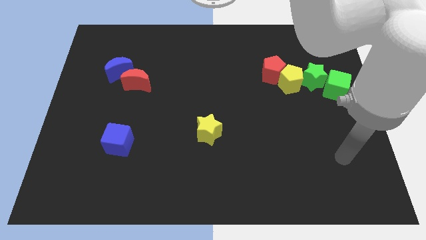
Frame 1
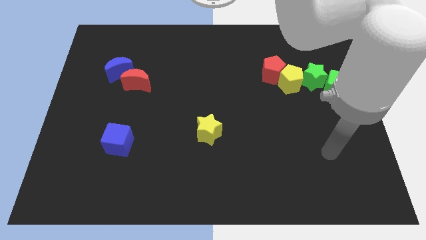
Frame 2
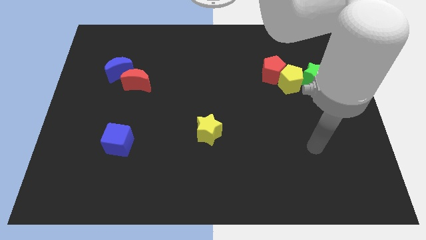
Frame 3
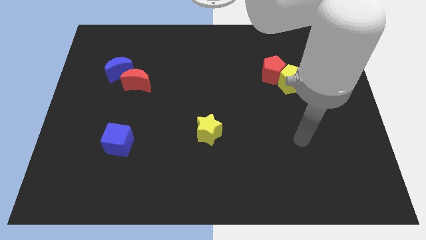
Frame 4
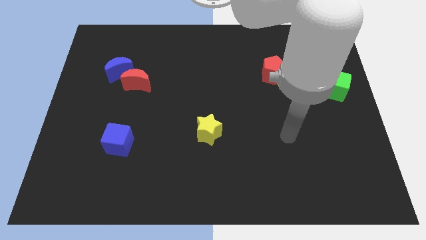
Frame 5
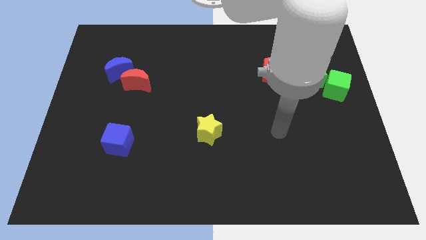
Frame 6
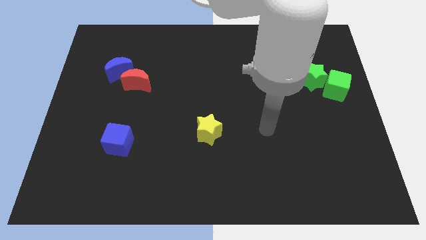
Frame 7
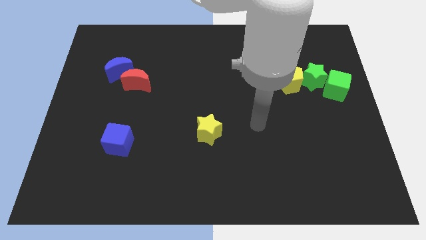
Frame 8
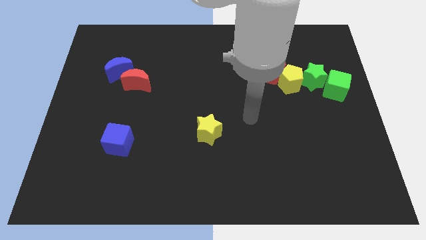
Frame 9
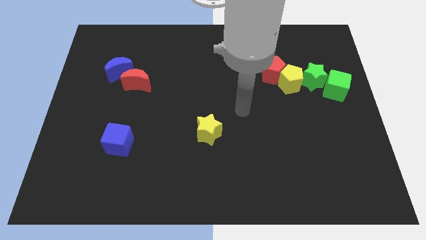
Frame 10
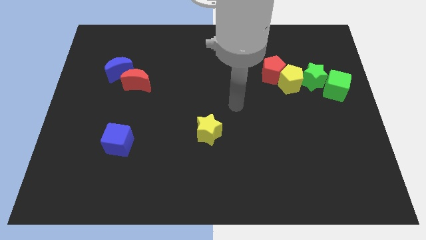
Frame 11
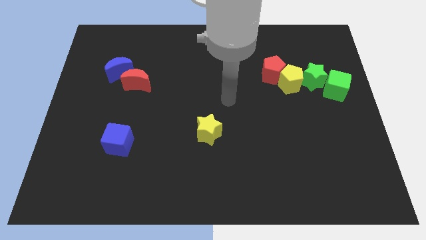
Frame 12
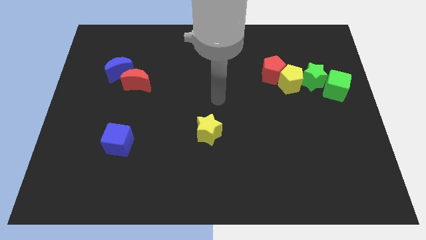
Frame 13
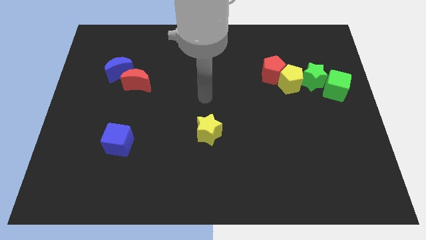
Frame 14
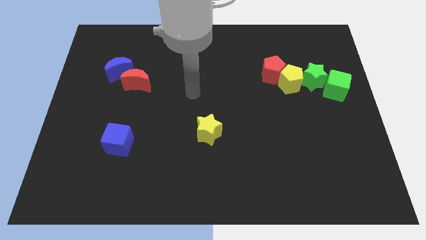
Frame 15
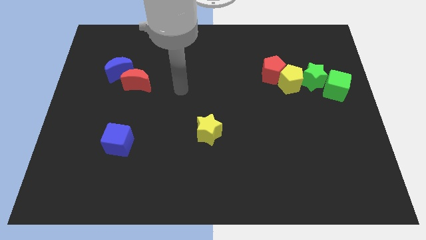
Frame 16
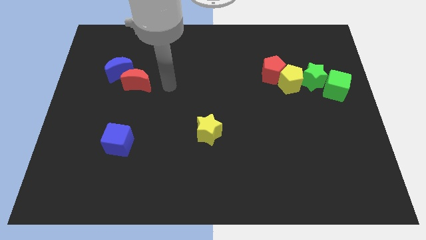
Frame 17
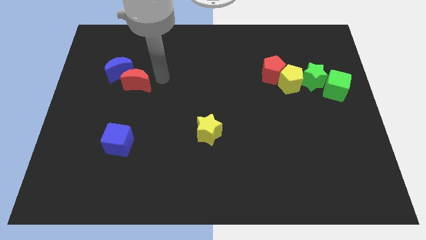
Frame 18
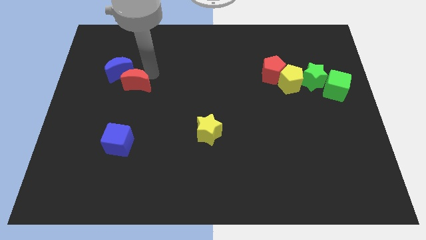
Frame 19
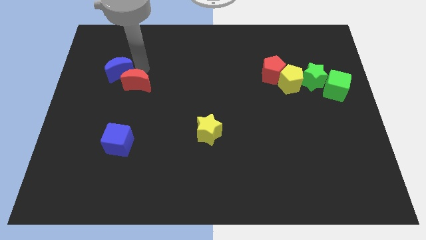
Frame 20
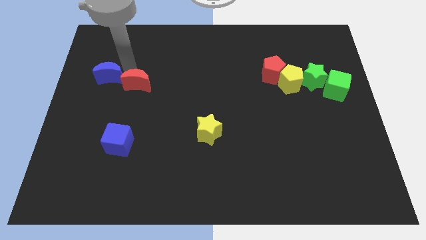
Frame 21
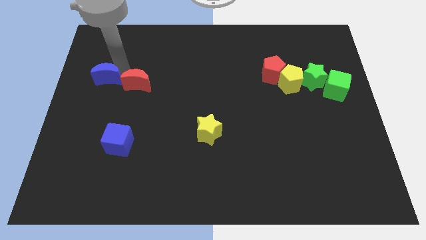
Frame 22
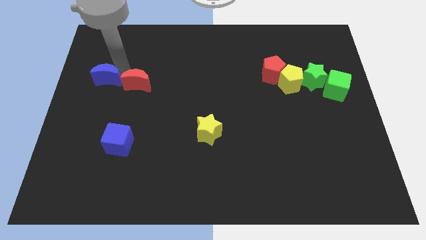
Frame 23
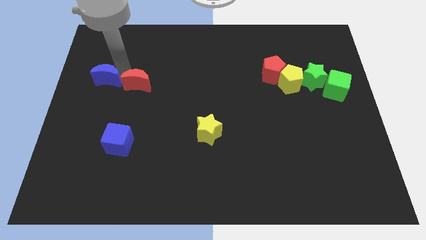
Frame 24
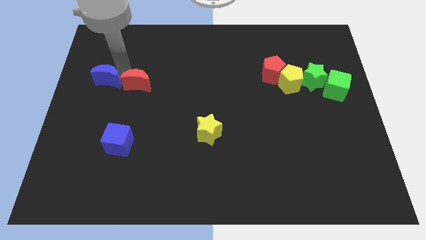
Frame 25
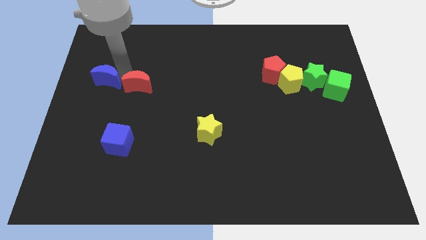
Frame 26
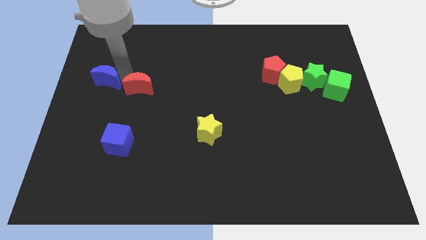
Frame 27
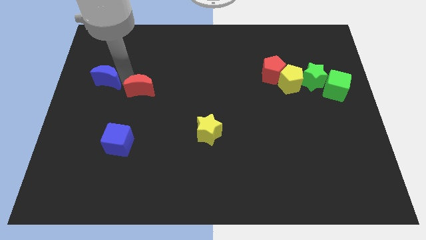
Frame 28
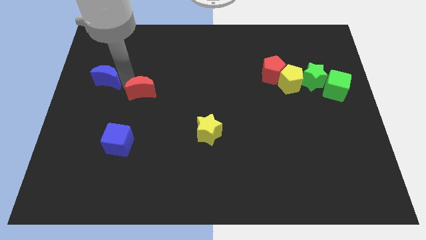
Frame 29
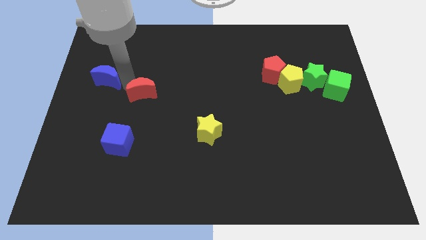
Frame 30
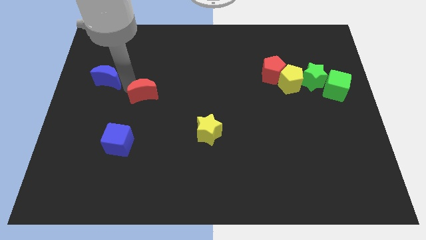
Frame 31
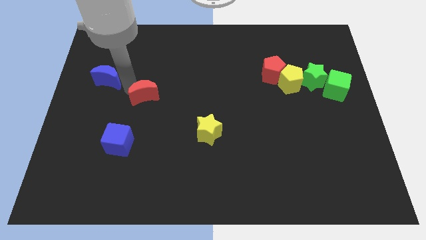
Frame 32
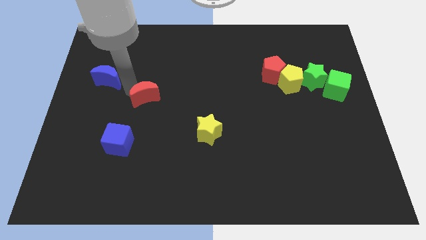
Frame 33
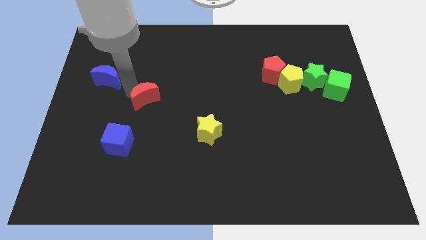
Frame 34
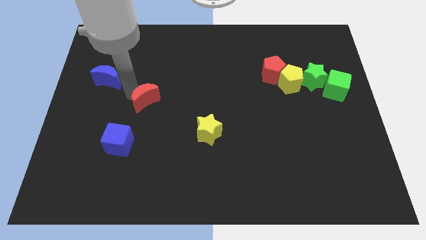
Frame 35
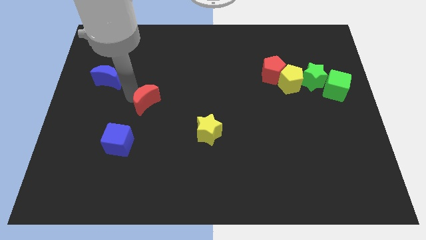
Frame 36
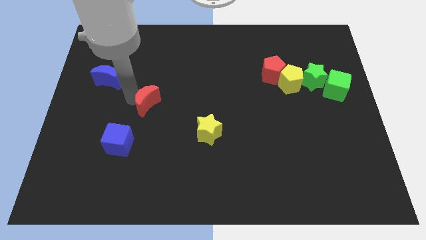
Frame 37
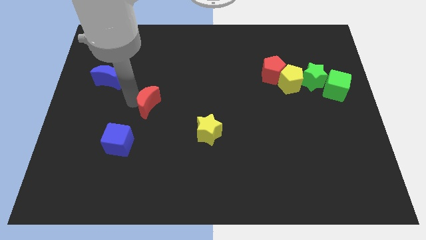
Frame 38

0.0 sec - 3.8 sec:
push the red moon somewhat diagonally downwards and right

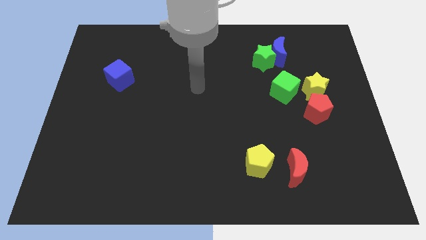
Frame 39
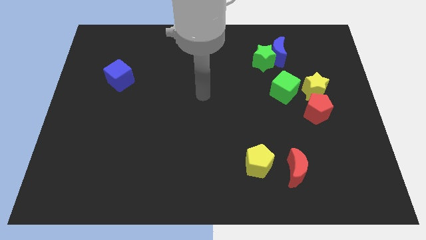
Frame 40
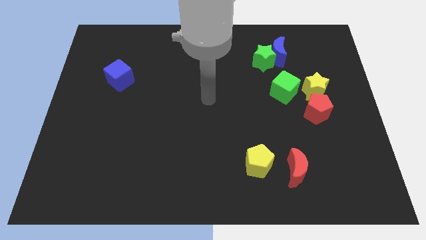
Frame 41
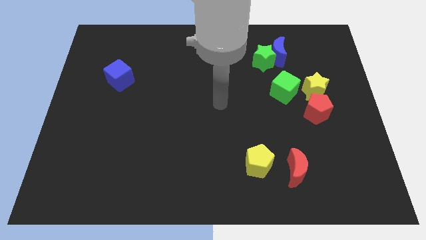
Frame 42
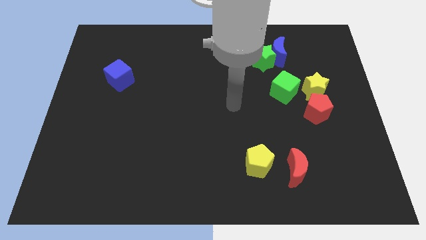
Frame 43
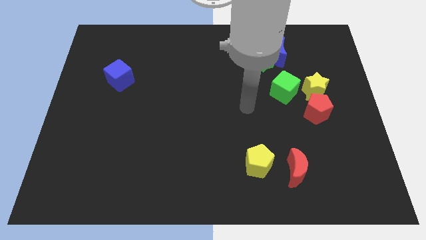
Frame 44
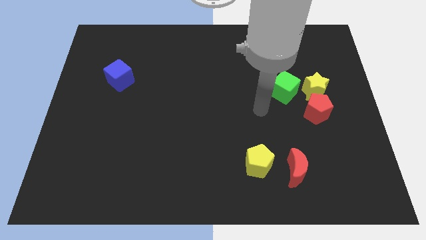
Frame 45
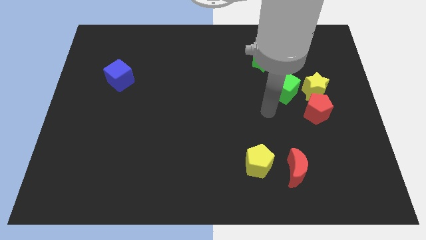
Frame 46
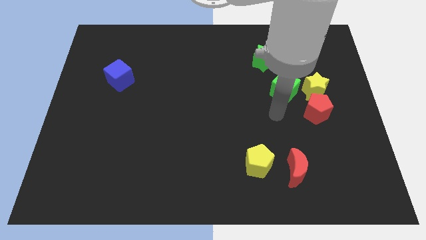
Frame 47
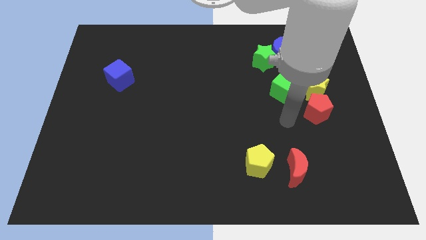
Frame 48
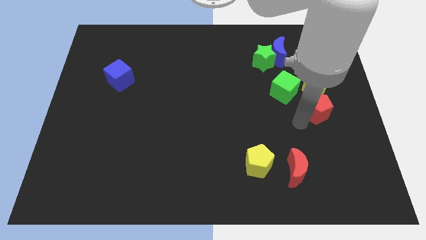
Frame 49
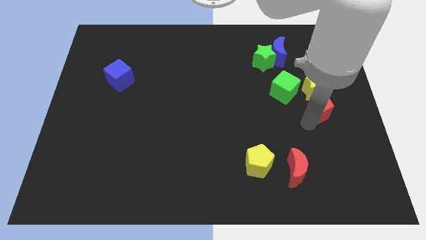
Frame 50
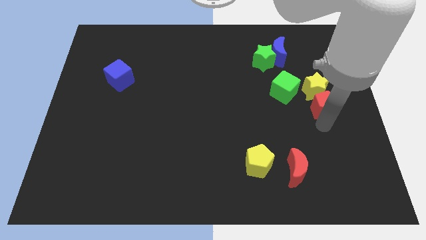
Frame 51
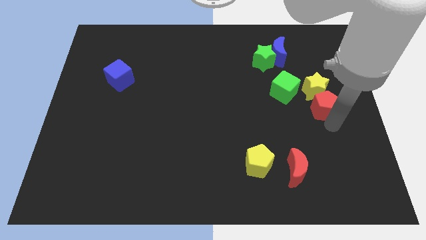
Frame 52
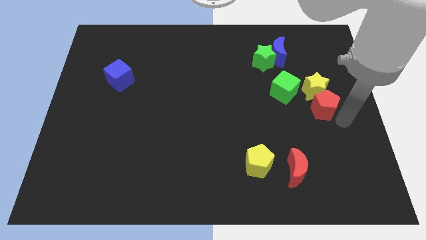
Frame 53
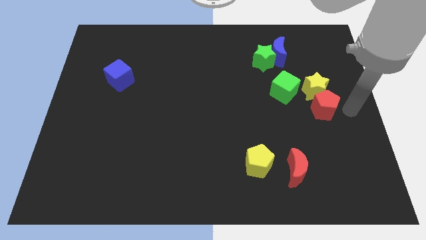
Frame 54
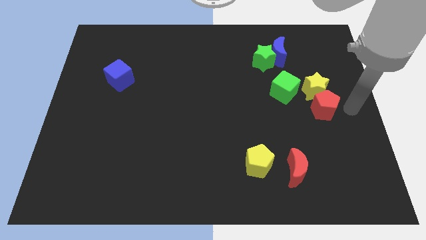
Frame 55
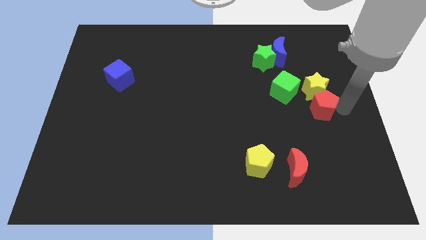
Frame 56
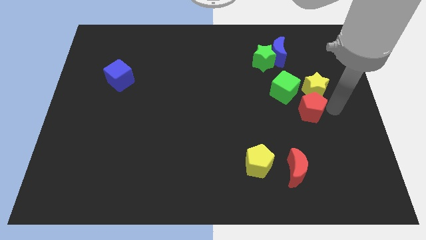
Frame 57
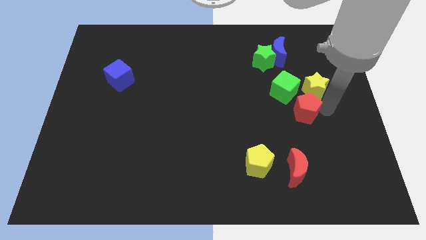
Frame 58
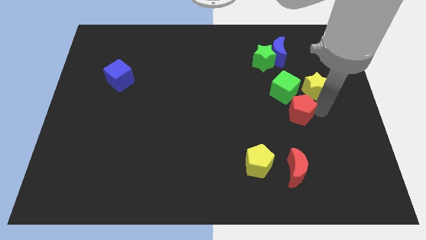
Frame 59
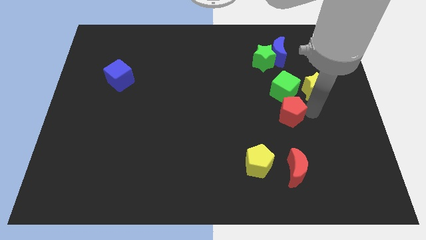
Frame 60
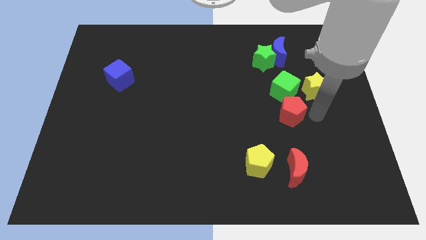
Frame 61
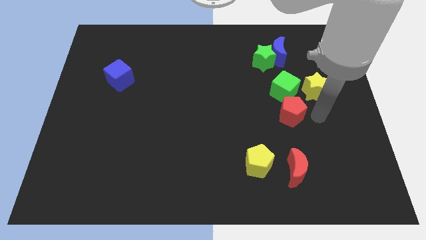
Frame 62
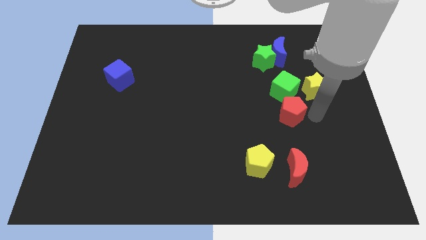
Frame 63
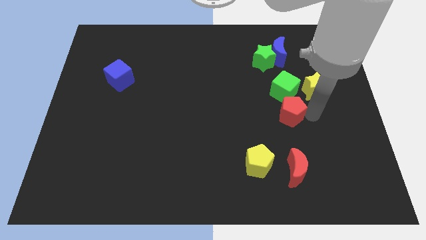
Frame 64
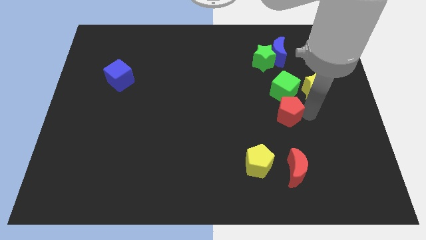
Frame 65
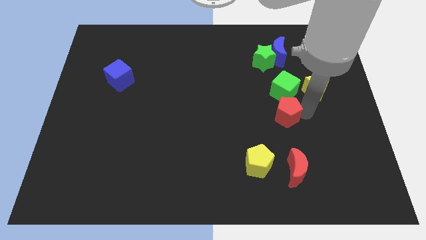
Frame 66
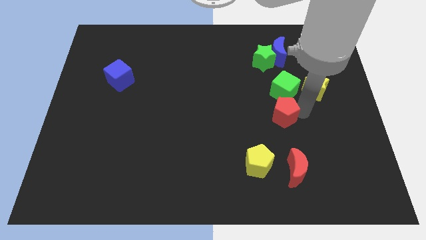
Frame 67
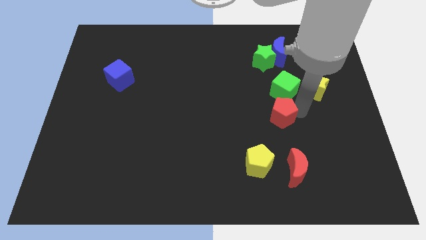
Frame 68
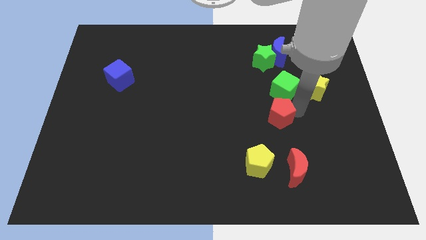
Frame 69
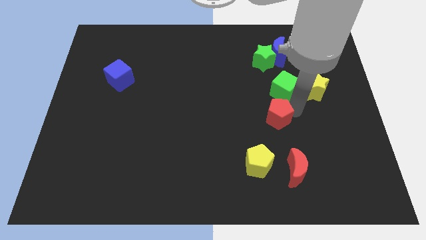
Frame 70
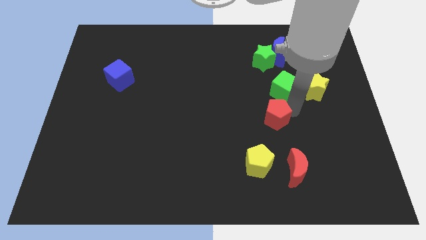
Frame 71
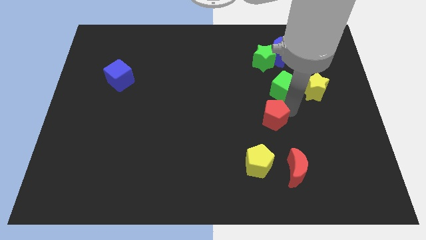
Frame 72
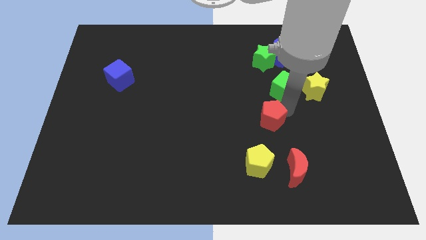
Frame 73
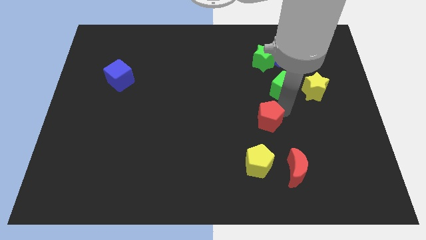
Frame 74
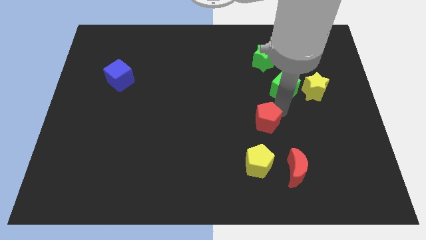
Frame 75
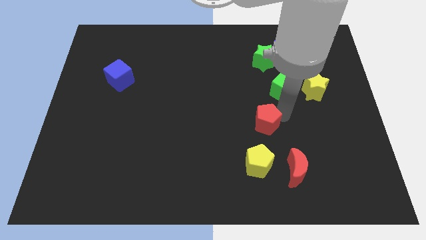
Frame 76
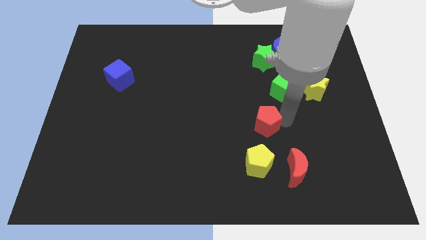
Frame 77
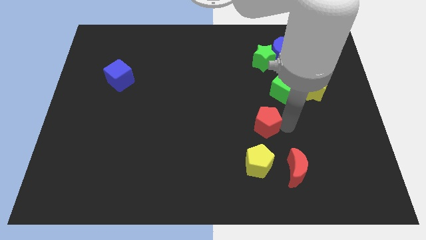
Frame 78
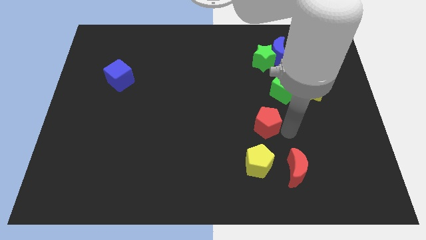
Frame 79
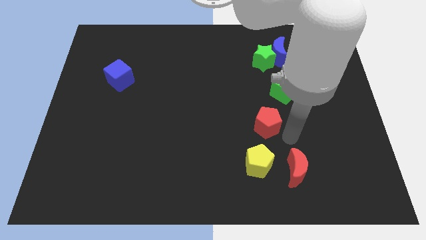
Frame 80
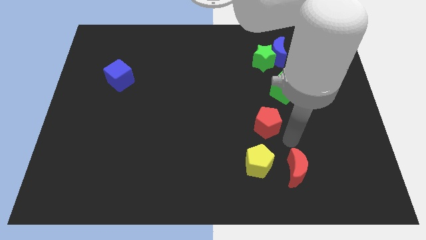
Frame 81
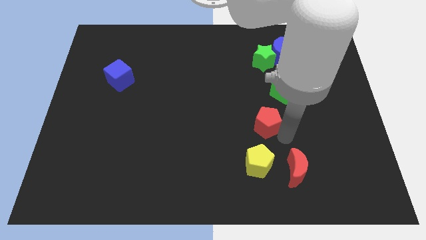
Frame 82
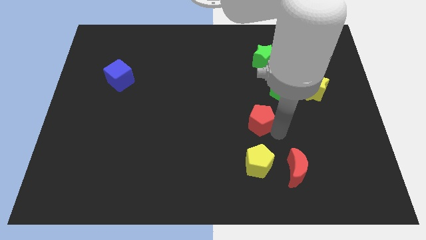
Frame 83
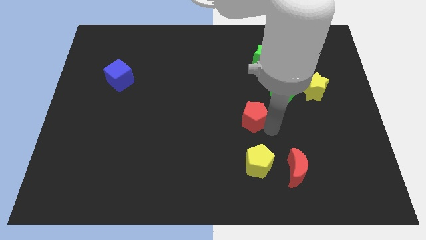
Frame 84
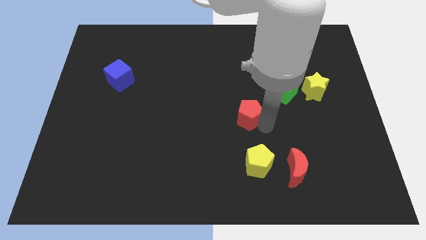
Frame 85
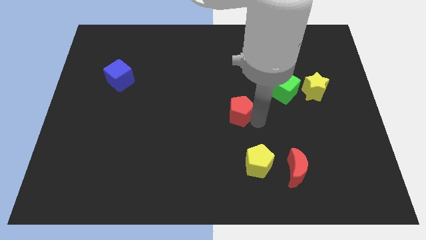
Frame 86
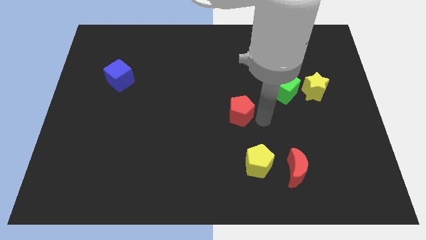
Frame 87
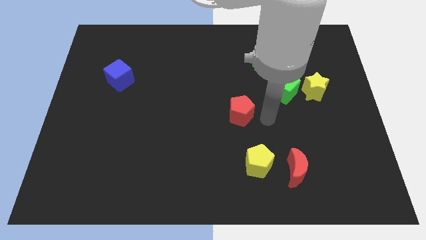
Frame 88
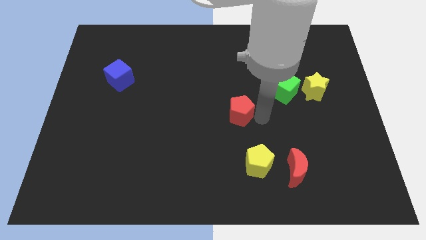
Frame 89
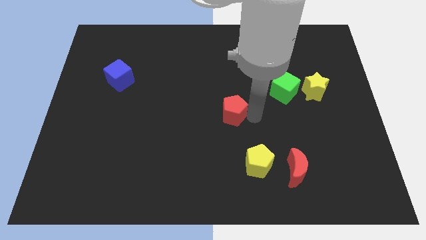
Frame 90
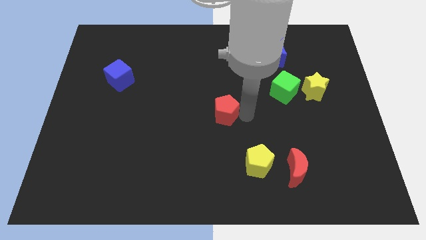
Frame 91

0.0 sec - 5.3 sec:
push the red pentagon to the left
